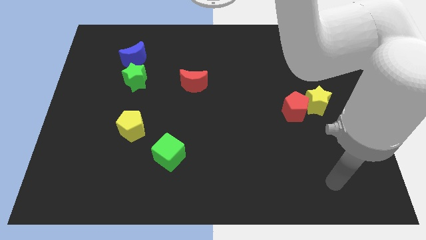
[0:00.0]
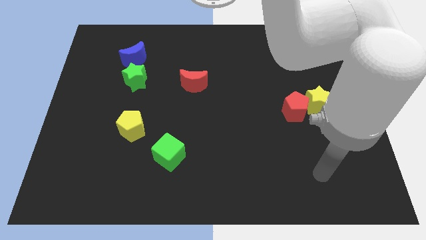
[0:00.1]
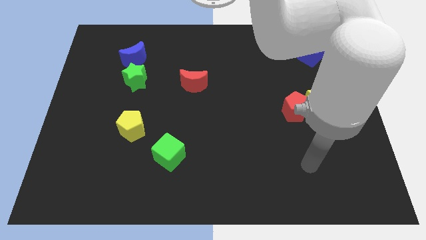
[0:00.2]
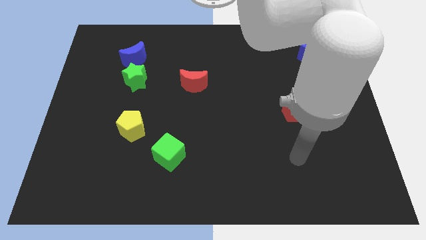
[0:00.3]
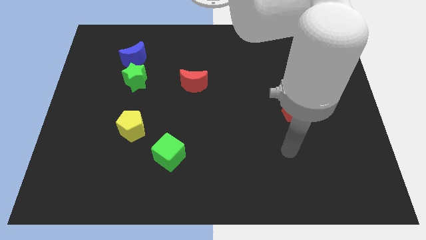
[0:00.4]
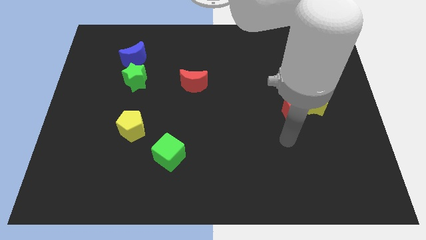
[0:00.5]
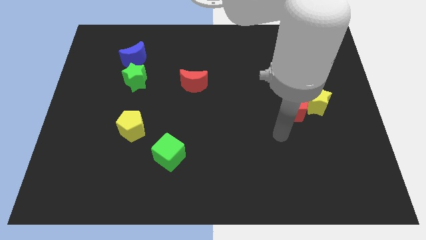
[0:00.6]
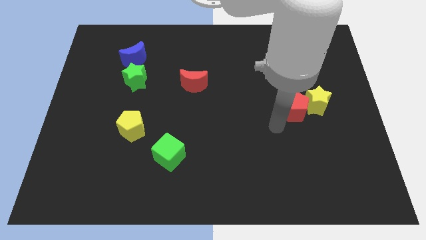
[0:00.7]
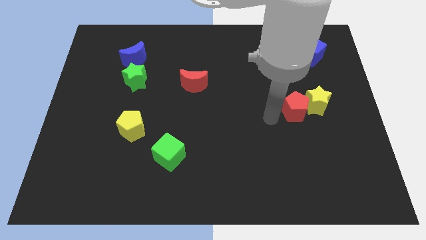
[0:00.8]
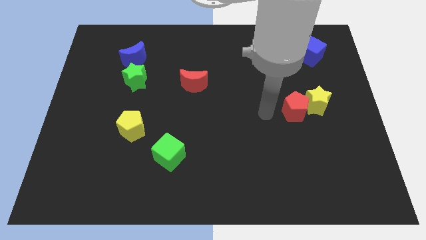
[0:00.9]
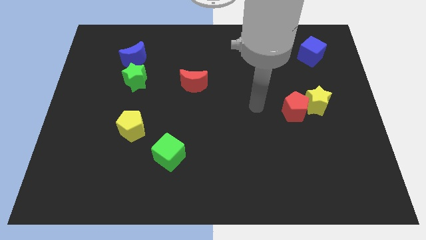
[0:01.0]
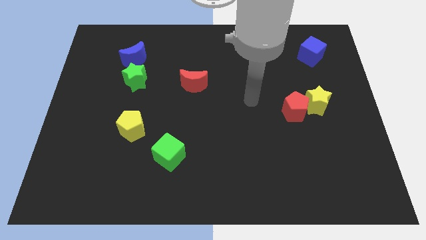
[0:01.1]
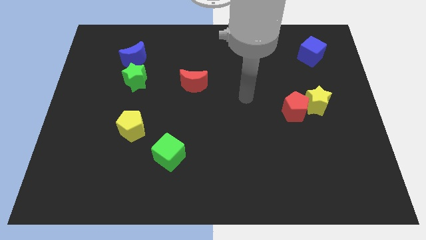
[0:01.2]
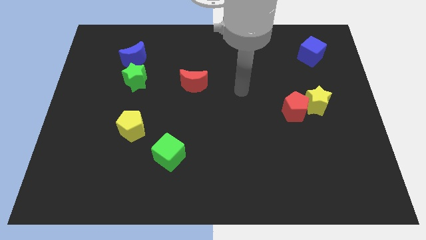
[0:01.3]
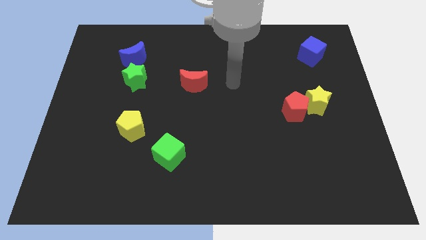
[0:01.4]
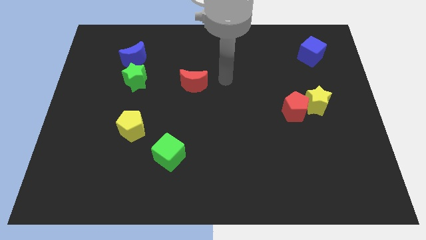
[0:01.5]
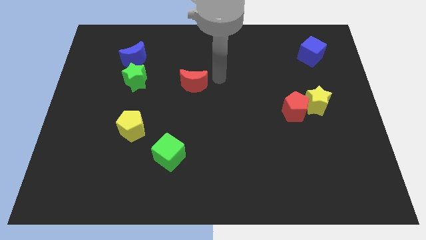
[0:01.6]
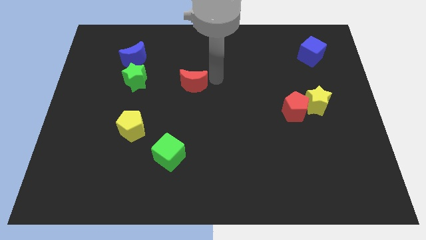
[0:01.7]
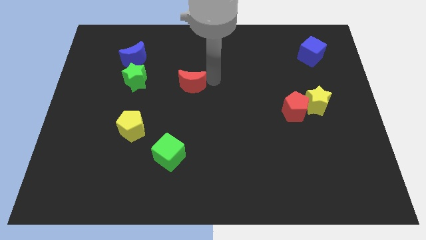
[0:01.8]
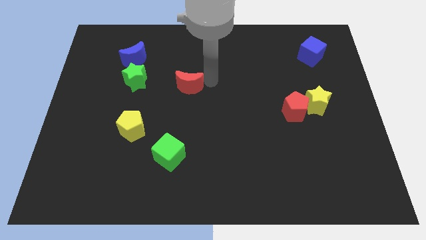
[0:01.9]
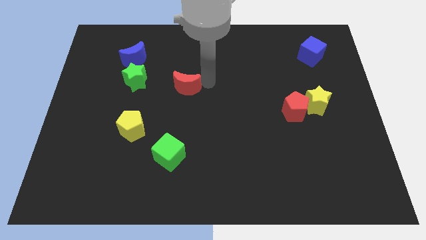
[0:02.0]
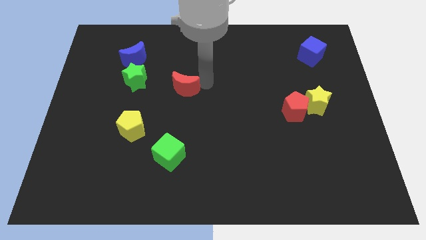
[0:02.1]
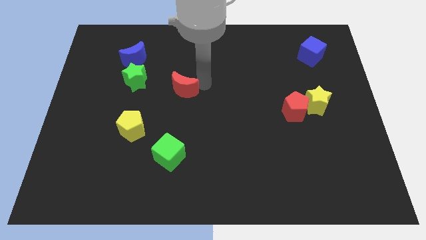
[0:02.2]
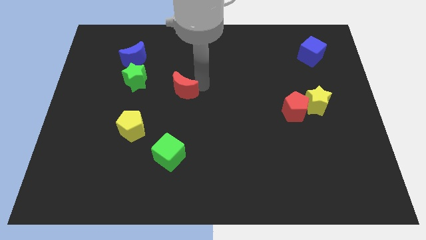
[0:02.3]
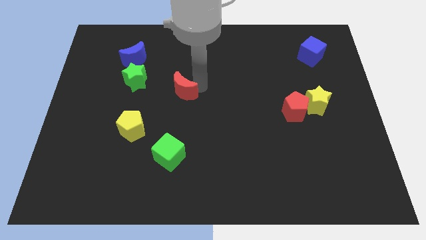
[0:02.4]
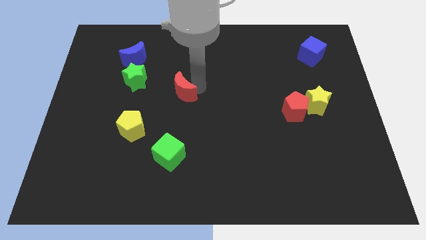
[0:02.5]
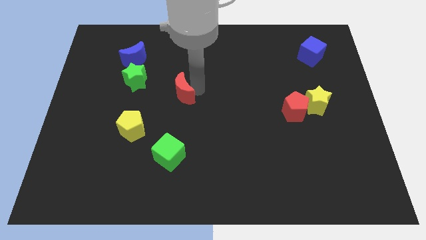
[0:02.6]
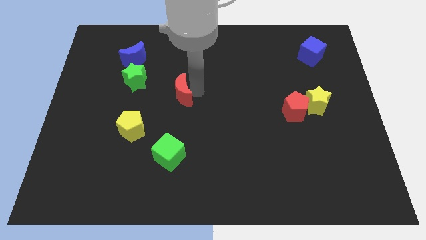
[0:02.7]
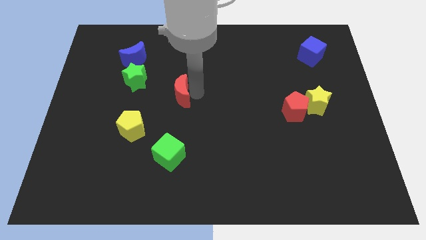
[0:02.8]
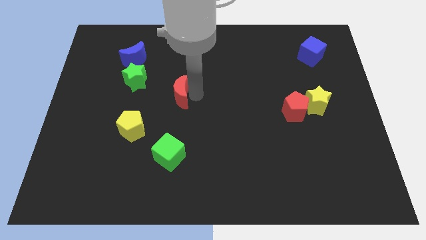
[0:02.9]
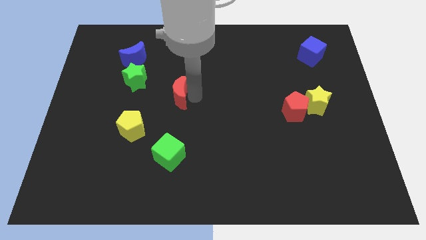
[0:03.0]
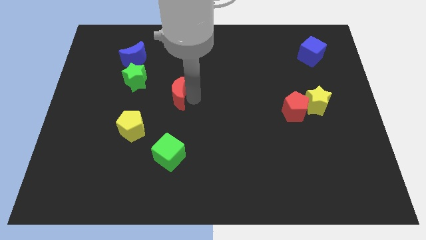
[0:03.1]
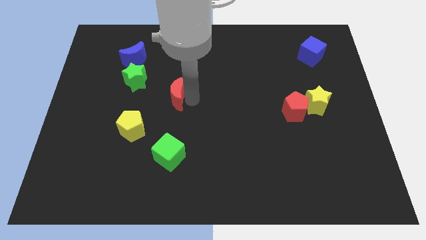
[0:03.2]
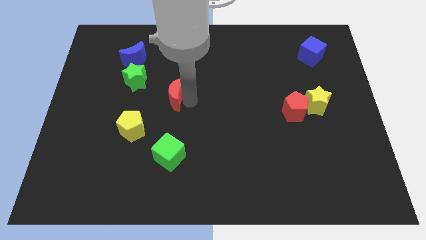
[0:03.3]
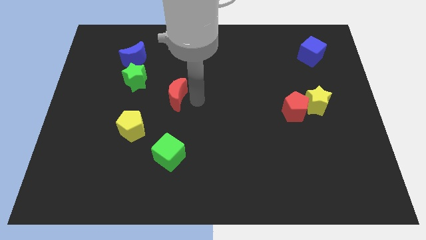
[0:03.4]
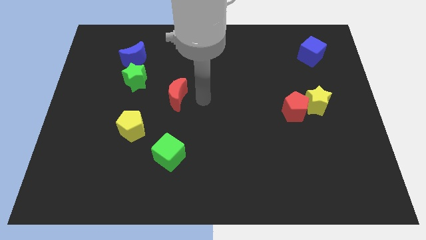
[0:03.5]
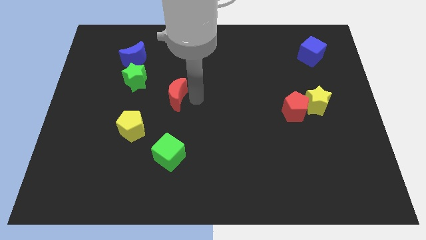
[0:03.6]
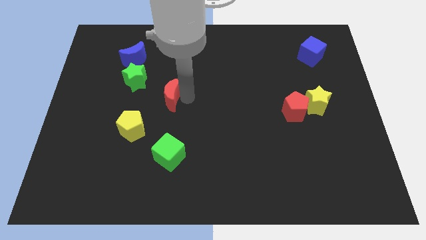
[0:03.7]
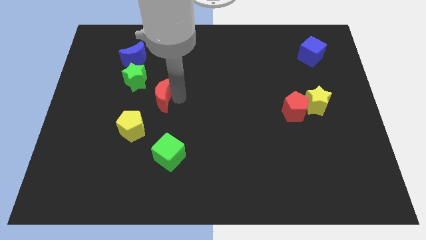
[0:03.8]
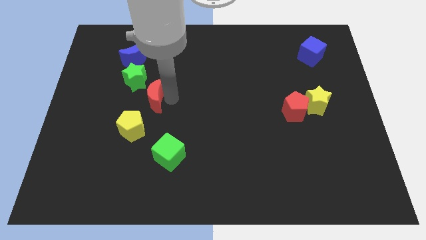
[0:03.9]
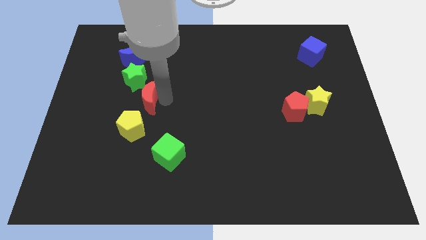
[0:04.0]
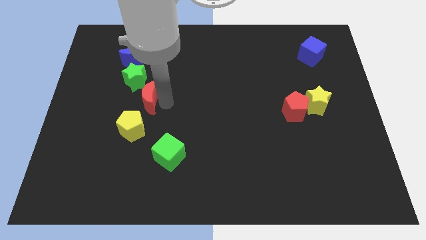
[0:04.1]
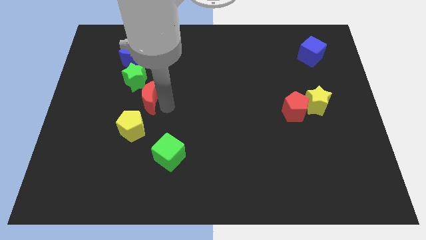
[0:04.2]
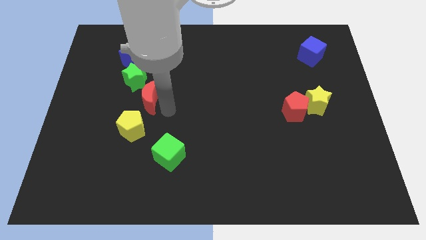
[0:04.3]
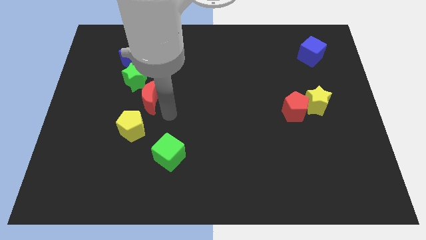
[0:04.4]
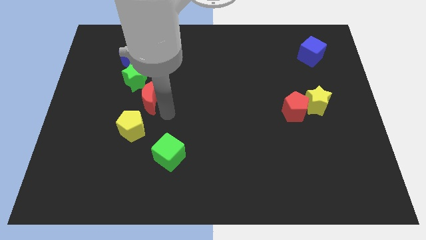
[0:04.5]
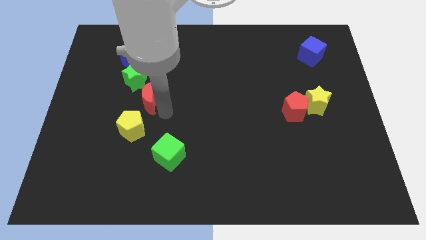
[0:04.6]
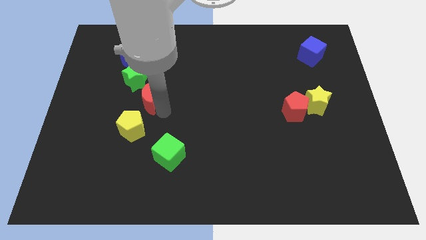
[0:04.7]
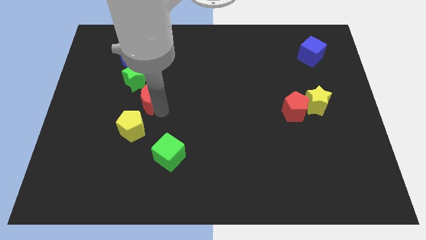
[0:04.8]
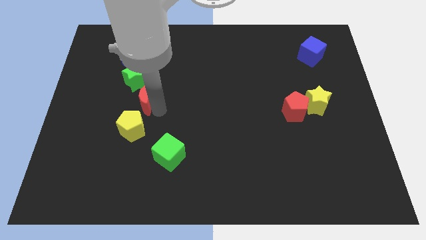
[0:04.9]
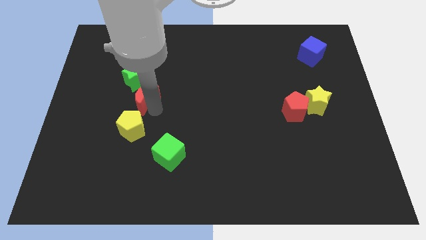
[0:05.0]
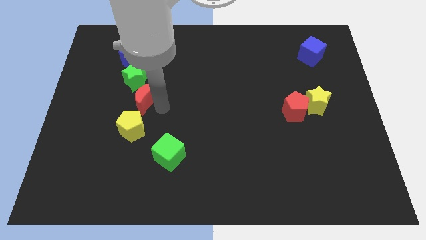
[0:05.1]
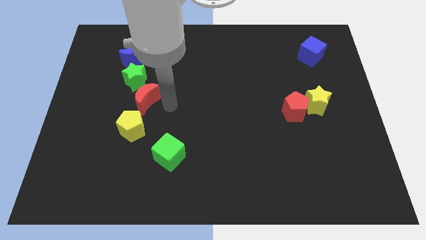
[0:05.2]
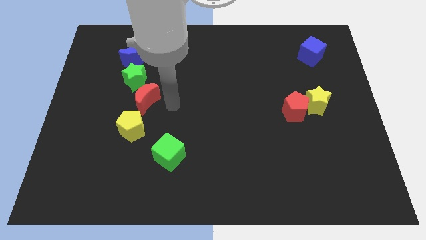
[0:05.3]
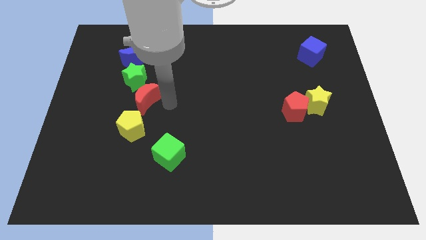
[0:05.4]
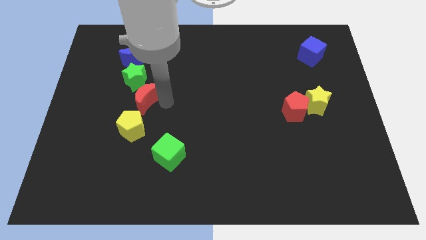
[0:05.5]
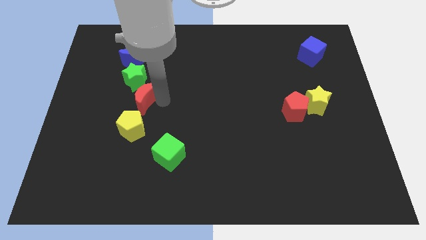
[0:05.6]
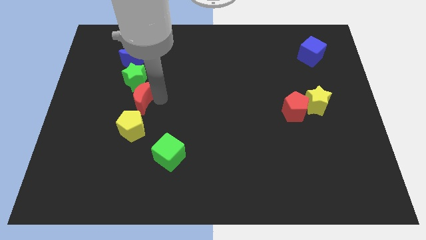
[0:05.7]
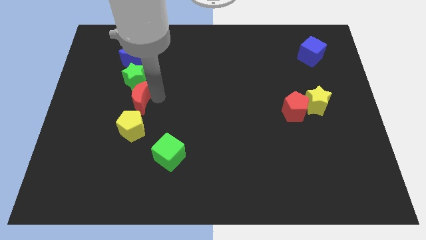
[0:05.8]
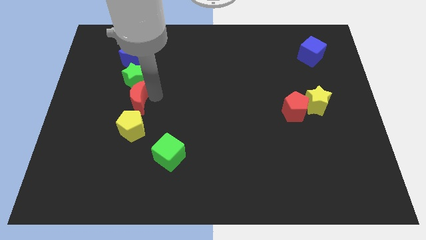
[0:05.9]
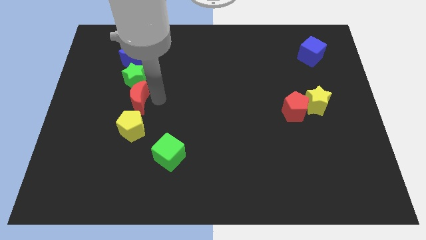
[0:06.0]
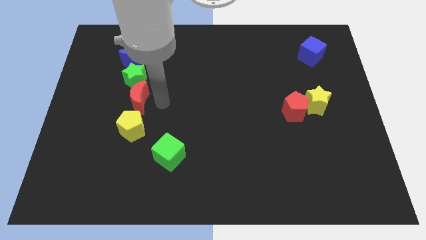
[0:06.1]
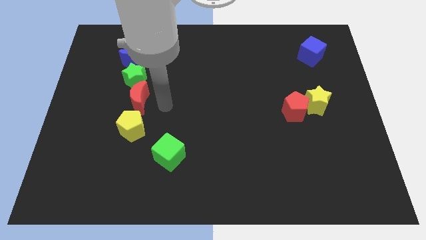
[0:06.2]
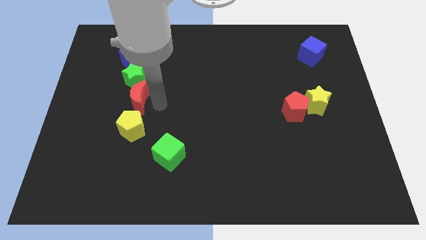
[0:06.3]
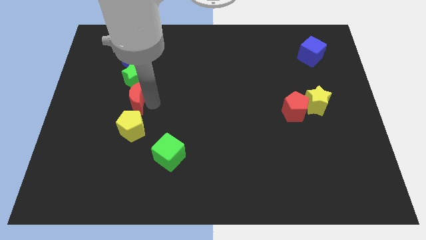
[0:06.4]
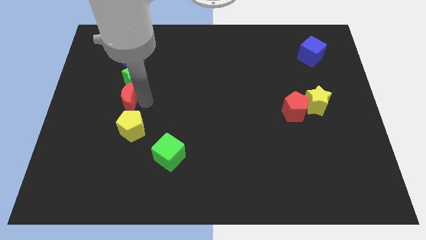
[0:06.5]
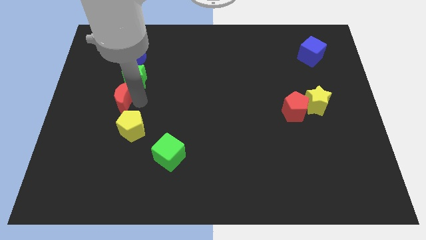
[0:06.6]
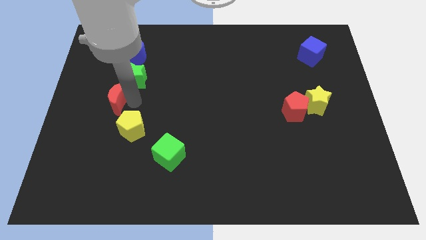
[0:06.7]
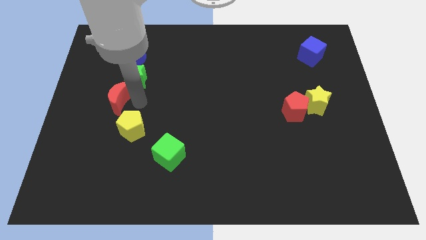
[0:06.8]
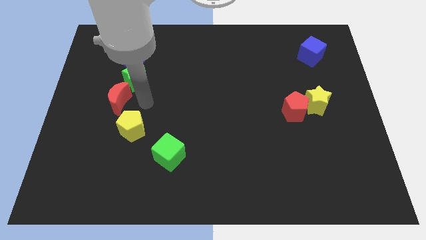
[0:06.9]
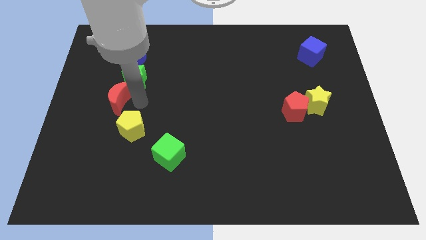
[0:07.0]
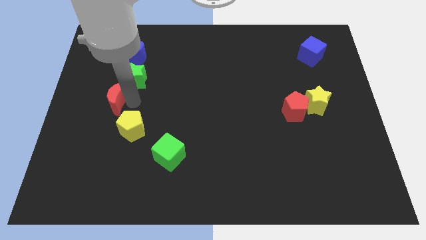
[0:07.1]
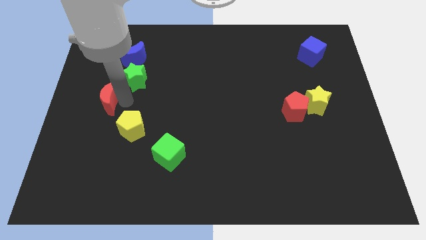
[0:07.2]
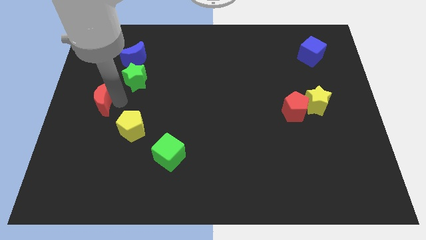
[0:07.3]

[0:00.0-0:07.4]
put the red moon to the center left
